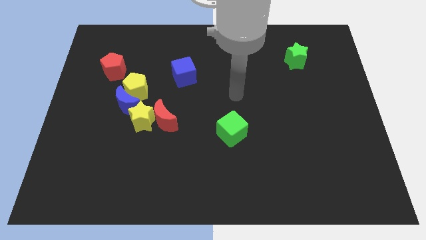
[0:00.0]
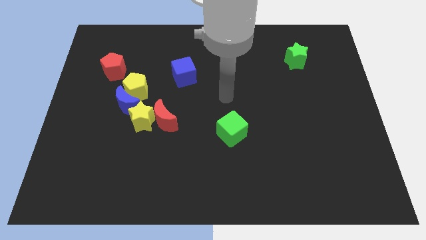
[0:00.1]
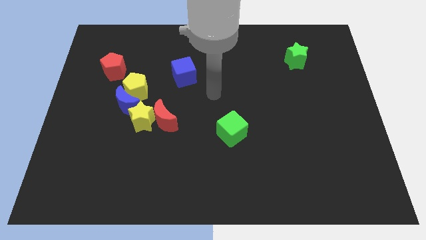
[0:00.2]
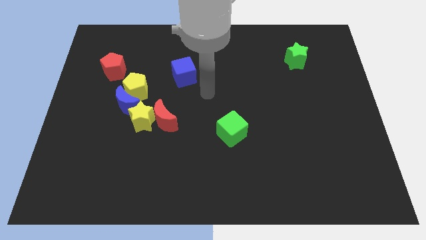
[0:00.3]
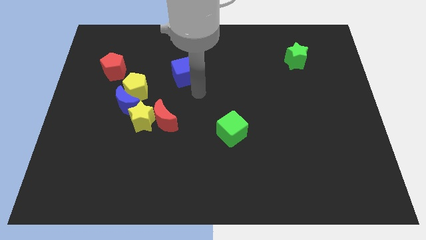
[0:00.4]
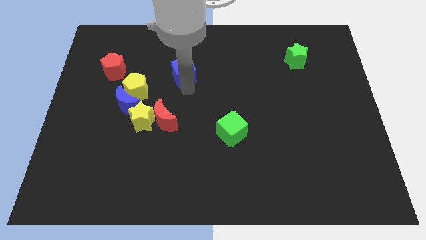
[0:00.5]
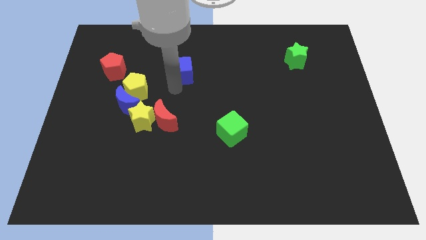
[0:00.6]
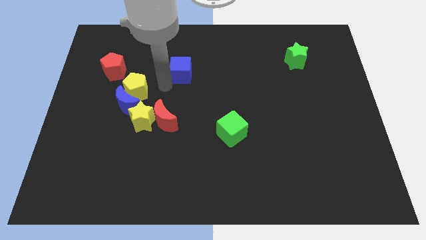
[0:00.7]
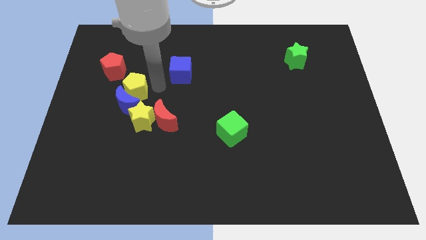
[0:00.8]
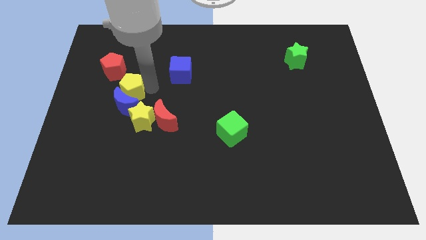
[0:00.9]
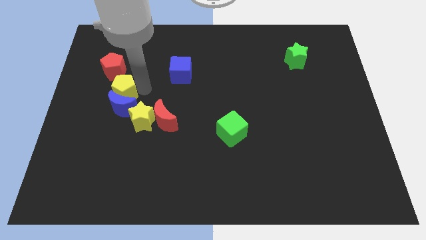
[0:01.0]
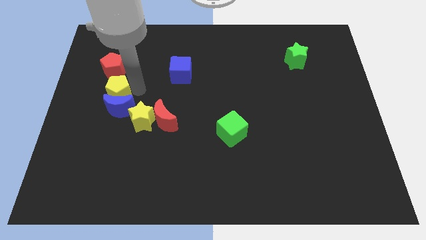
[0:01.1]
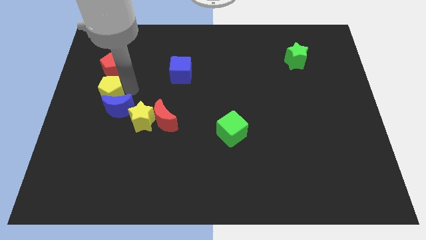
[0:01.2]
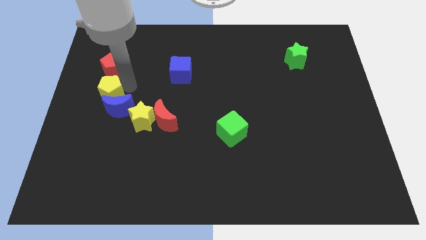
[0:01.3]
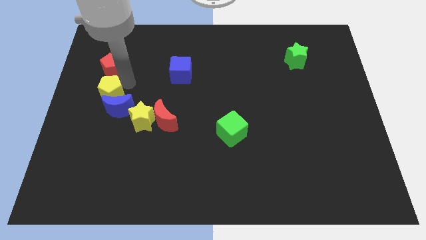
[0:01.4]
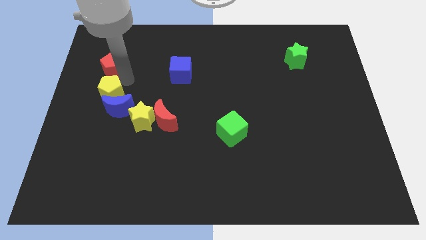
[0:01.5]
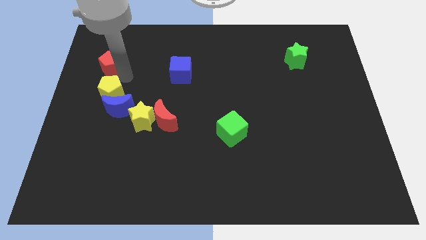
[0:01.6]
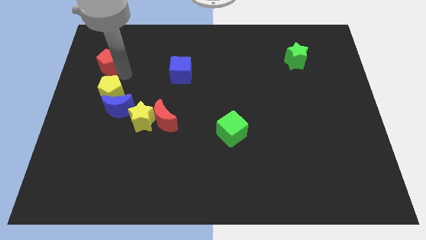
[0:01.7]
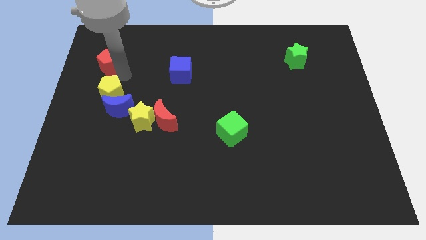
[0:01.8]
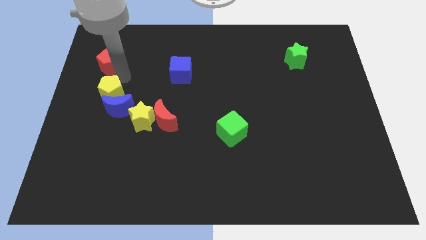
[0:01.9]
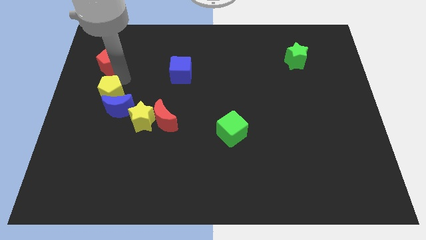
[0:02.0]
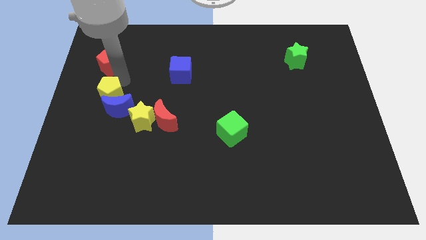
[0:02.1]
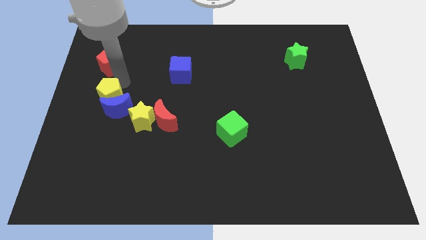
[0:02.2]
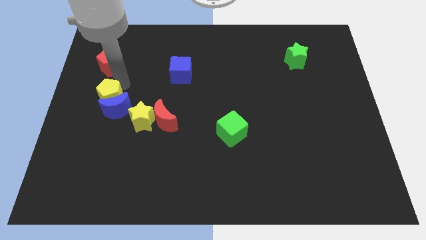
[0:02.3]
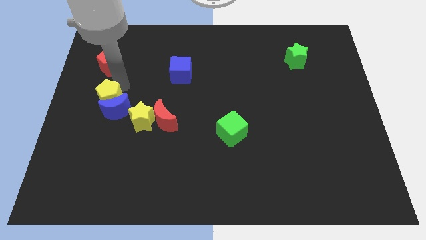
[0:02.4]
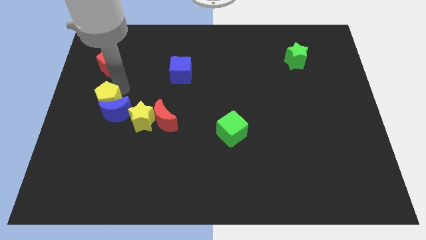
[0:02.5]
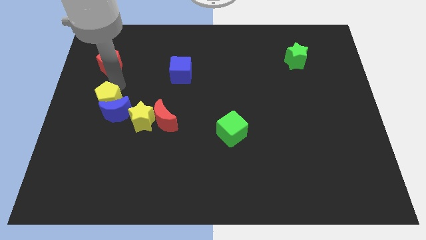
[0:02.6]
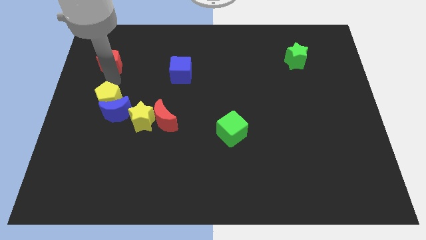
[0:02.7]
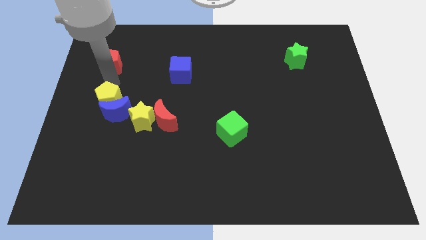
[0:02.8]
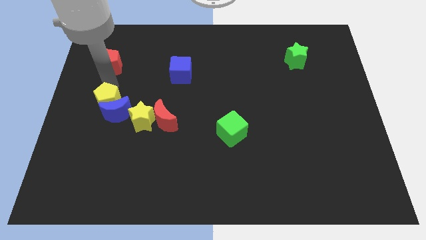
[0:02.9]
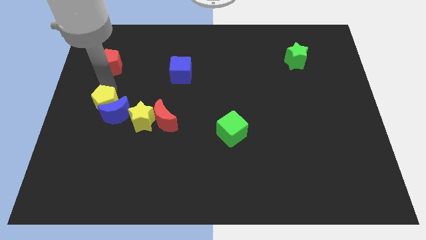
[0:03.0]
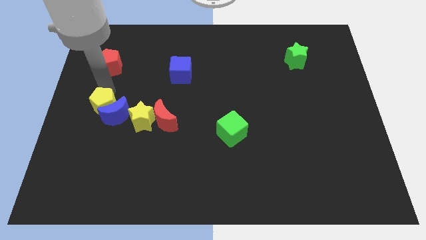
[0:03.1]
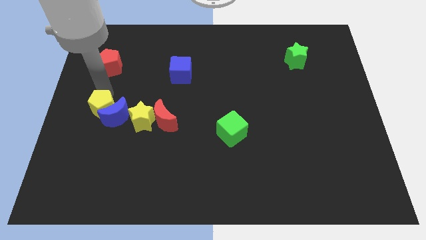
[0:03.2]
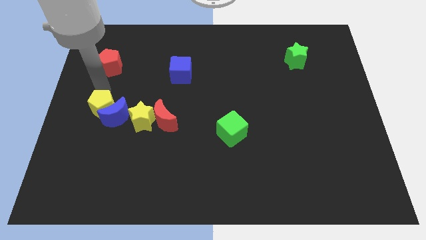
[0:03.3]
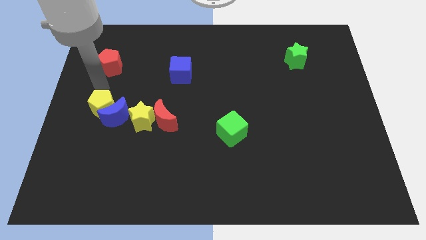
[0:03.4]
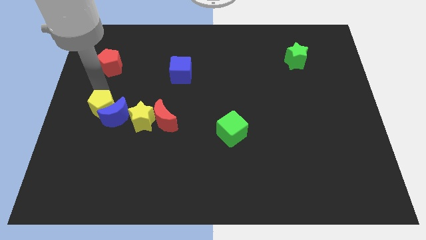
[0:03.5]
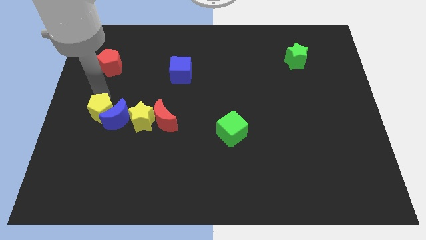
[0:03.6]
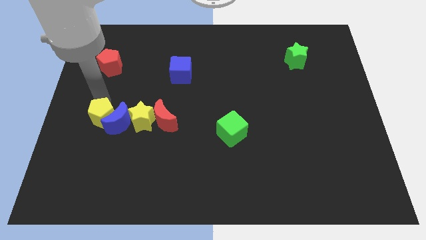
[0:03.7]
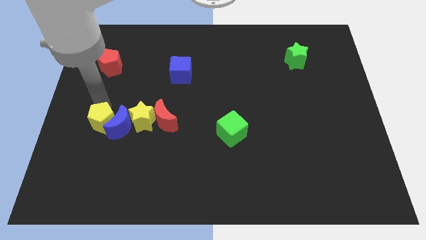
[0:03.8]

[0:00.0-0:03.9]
push the yellow pentagon down a little bit

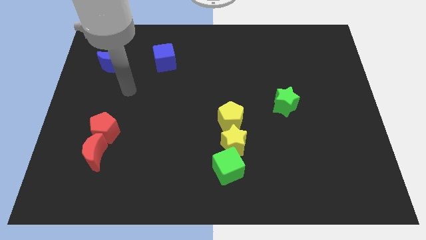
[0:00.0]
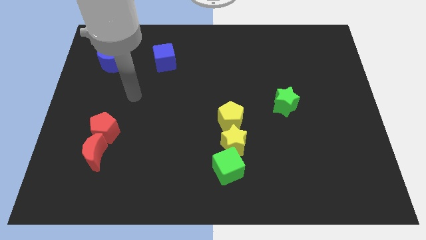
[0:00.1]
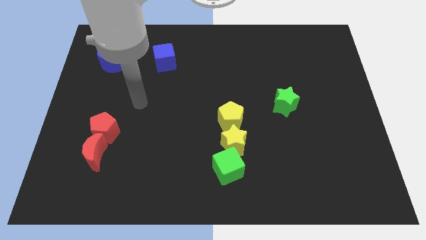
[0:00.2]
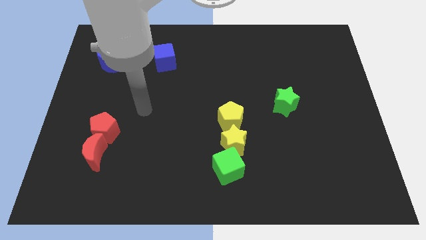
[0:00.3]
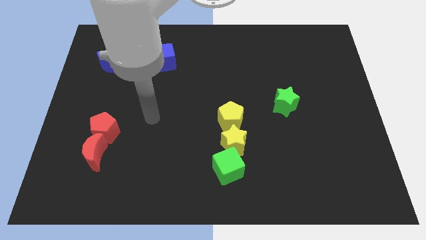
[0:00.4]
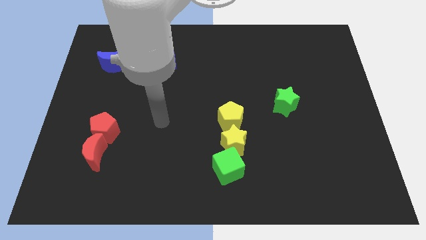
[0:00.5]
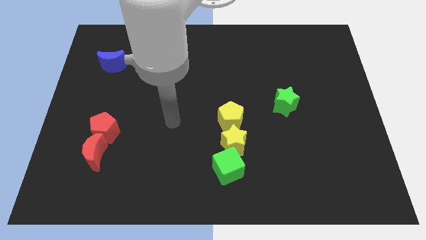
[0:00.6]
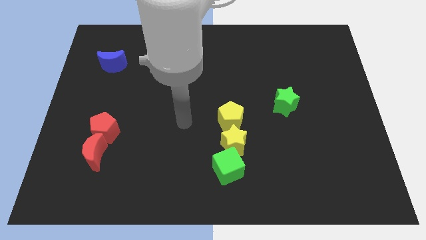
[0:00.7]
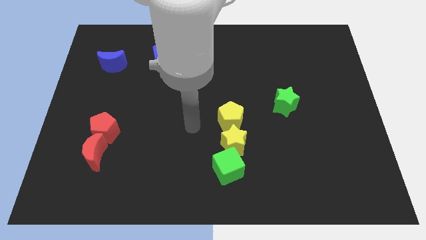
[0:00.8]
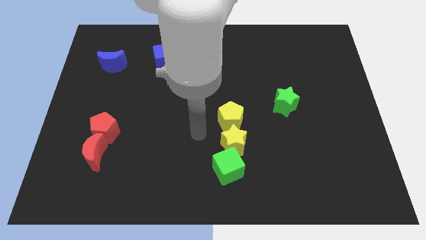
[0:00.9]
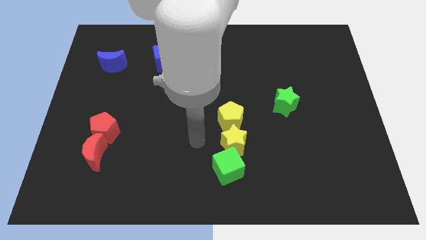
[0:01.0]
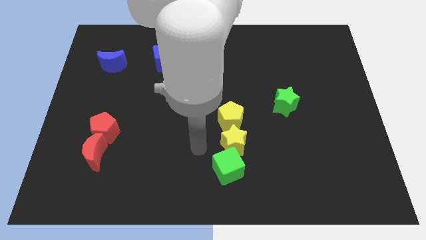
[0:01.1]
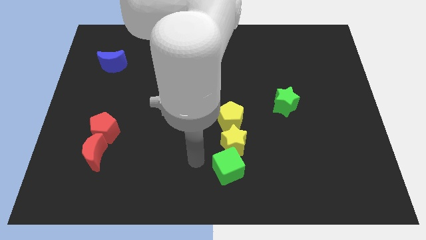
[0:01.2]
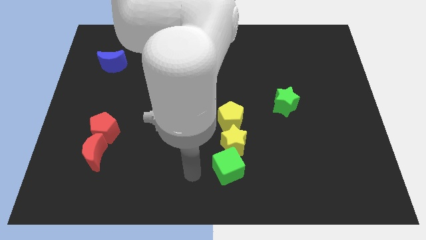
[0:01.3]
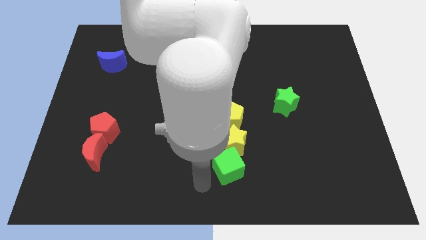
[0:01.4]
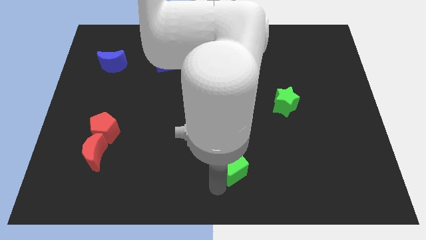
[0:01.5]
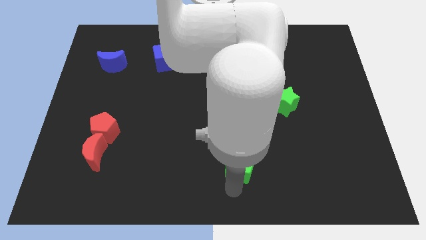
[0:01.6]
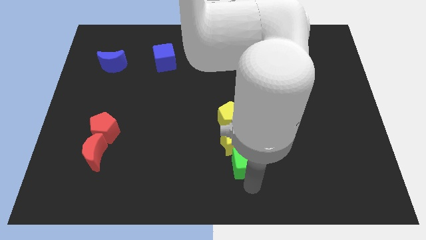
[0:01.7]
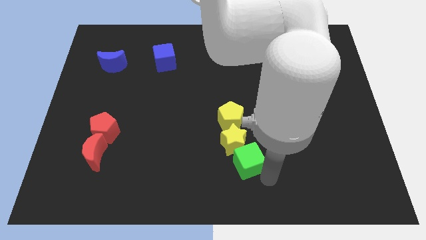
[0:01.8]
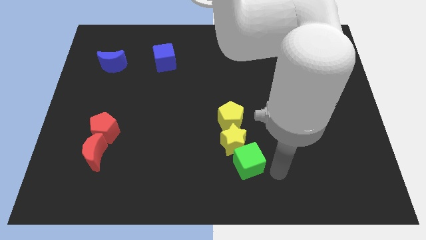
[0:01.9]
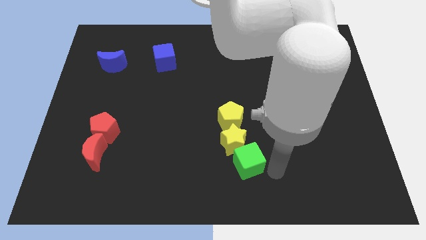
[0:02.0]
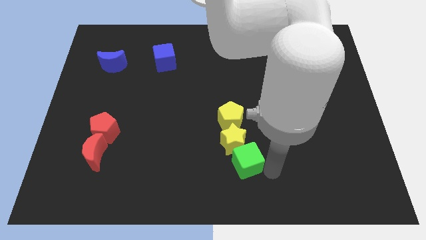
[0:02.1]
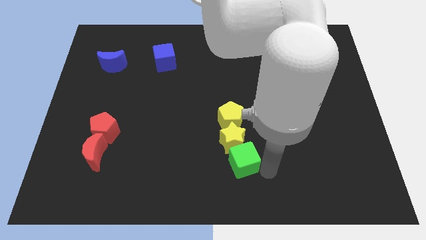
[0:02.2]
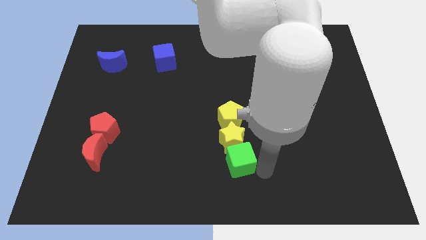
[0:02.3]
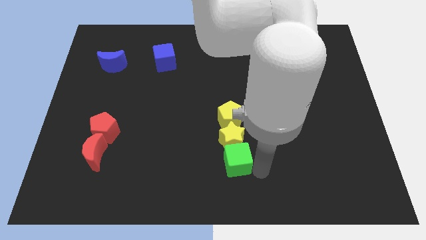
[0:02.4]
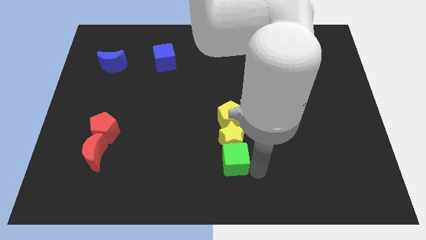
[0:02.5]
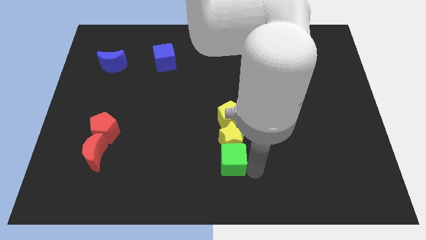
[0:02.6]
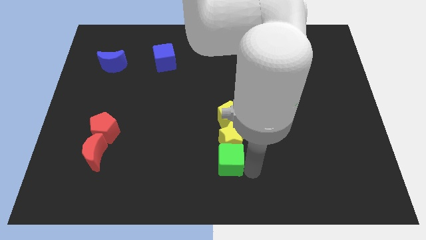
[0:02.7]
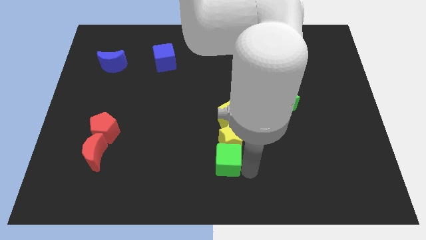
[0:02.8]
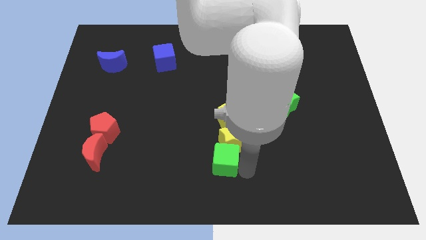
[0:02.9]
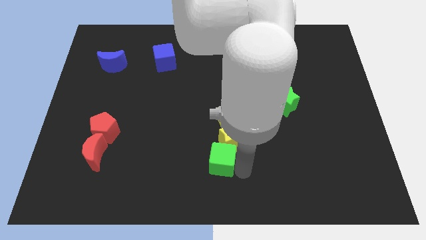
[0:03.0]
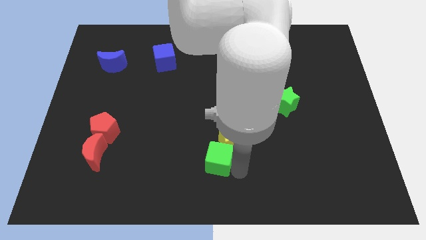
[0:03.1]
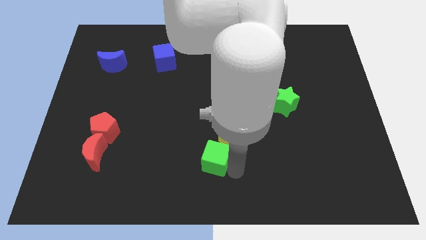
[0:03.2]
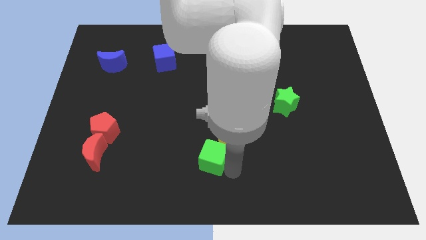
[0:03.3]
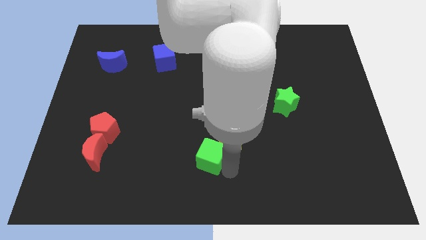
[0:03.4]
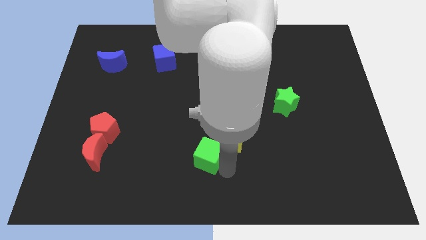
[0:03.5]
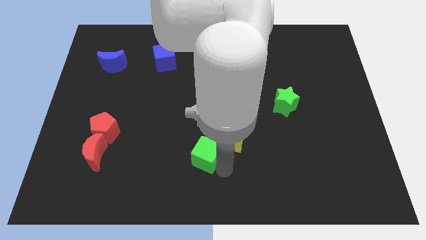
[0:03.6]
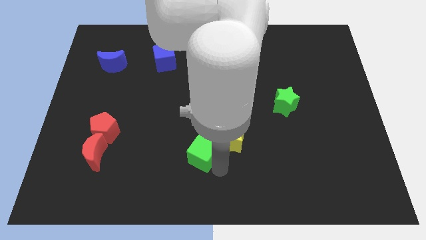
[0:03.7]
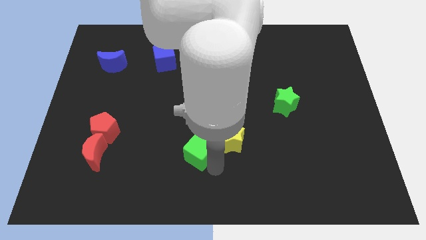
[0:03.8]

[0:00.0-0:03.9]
move the green cube a little diagonally up and left
